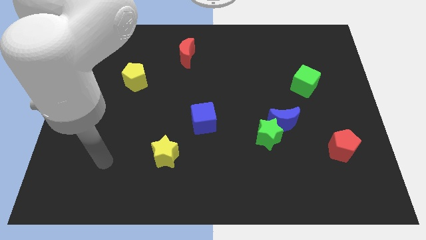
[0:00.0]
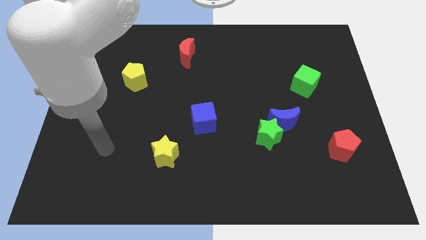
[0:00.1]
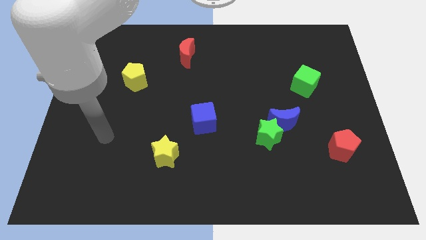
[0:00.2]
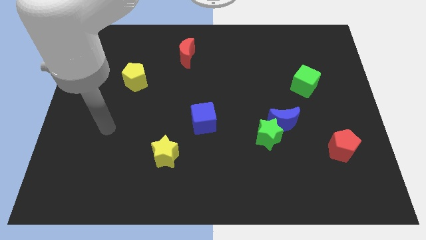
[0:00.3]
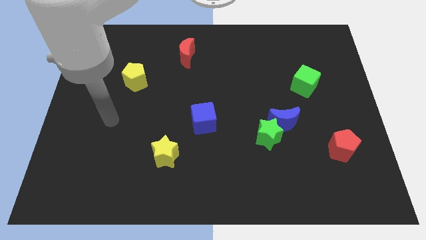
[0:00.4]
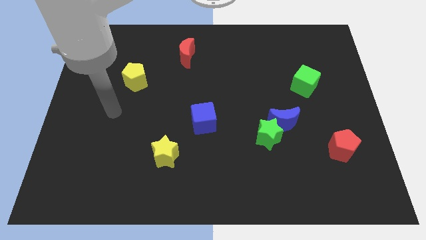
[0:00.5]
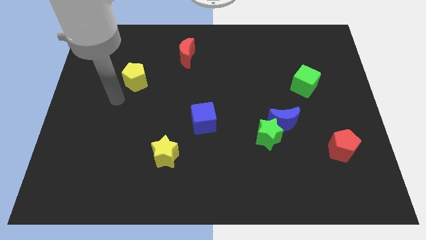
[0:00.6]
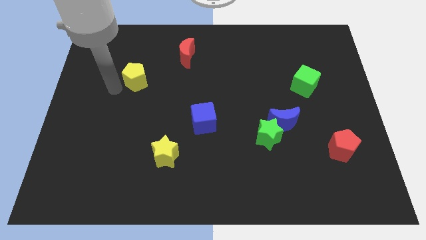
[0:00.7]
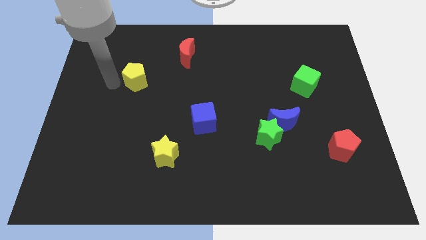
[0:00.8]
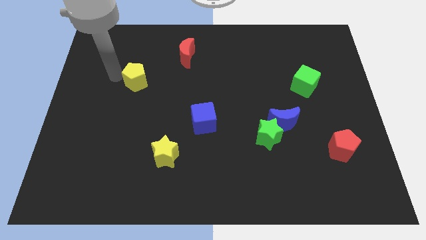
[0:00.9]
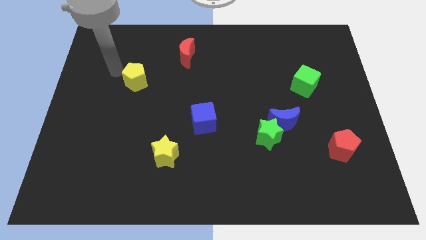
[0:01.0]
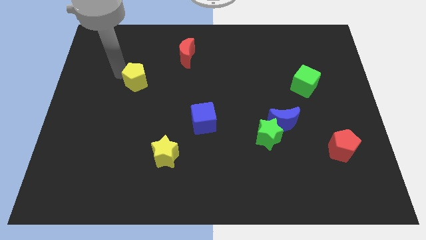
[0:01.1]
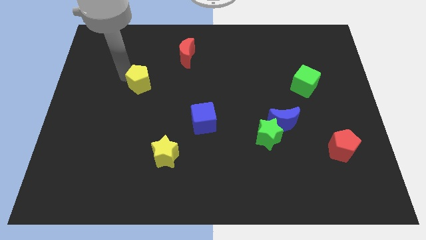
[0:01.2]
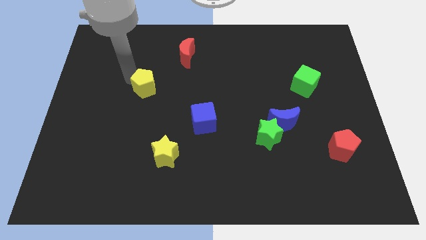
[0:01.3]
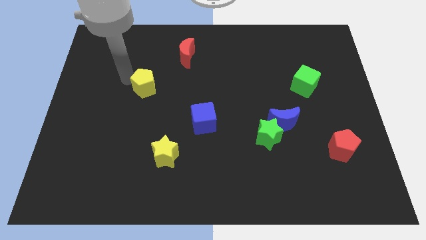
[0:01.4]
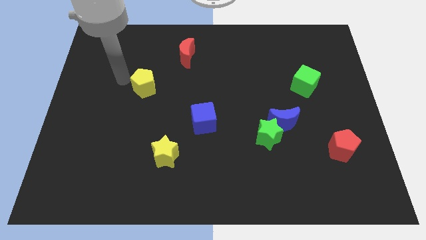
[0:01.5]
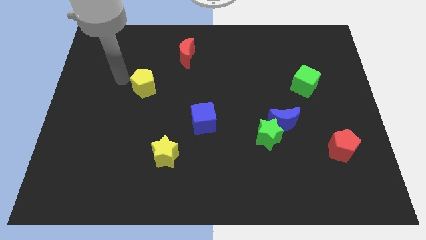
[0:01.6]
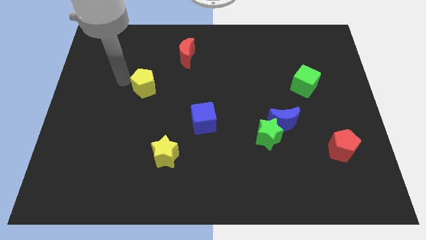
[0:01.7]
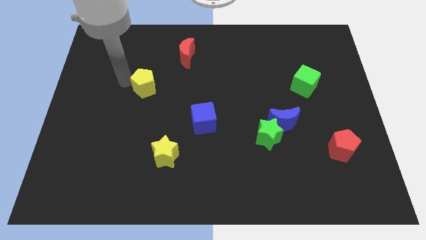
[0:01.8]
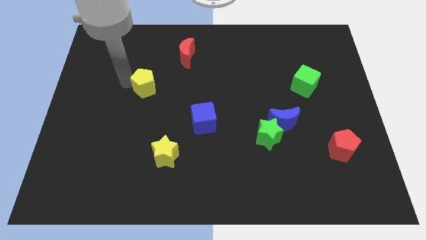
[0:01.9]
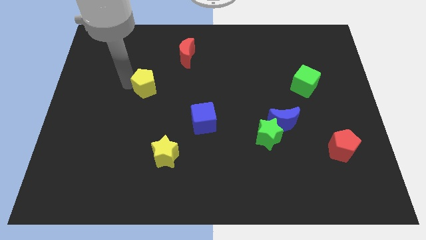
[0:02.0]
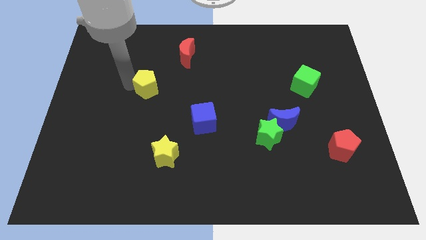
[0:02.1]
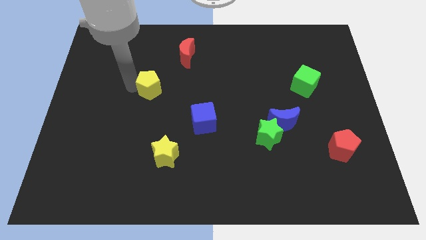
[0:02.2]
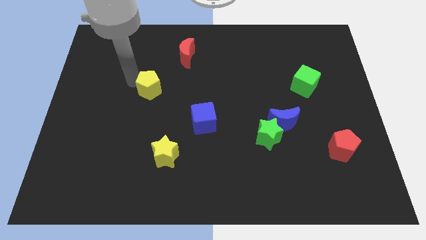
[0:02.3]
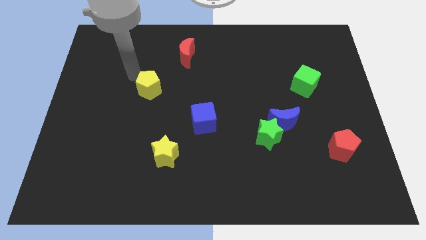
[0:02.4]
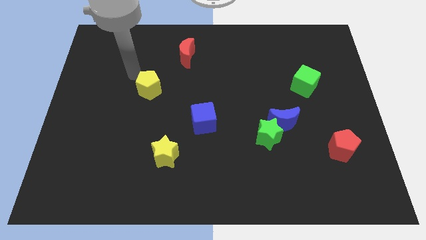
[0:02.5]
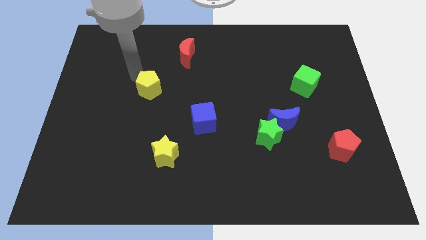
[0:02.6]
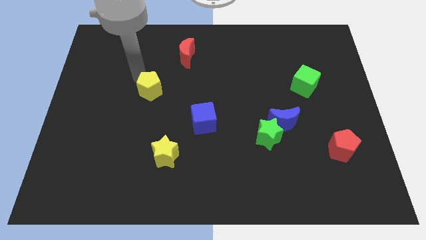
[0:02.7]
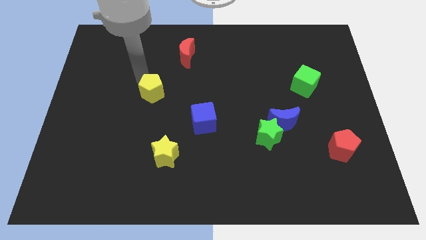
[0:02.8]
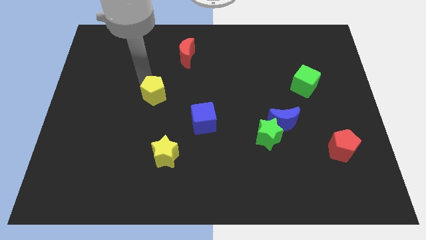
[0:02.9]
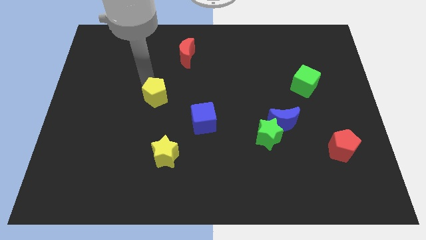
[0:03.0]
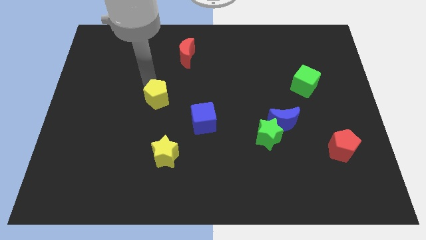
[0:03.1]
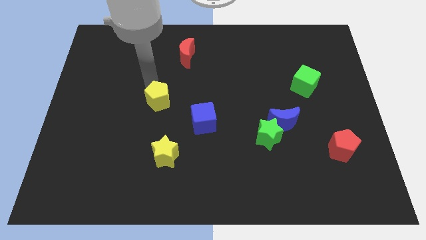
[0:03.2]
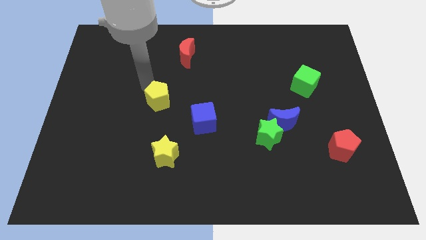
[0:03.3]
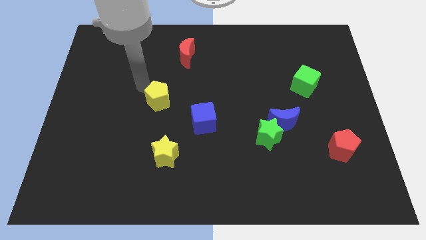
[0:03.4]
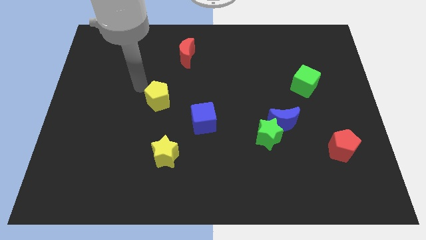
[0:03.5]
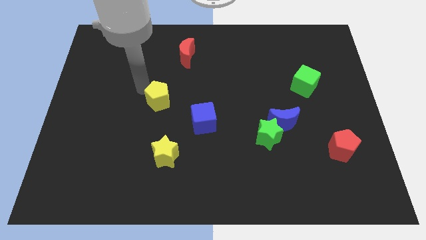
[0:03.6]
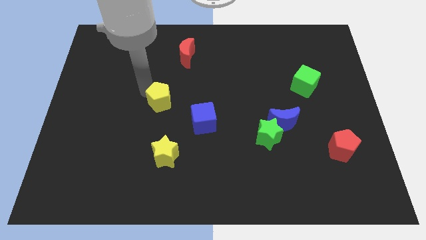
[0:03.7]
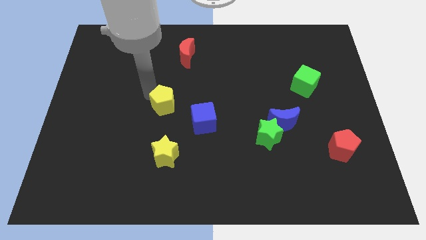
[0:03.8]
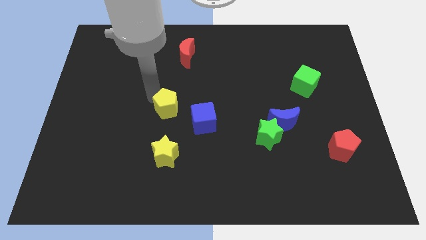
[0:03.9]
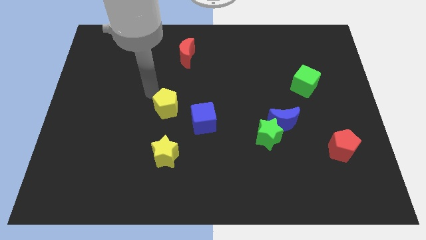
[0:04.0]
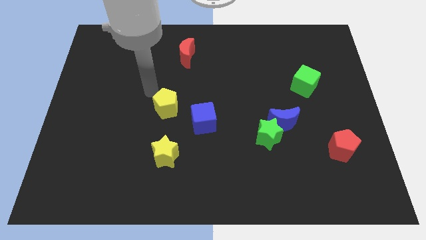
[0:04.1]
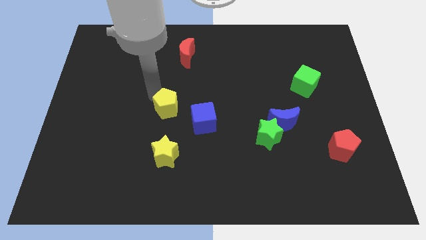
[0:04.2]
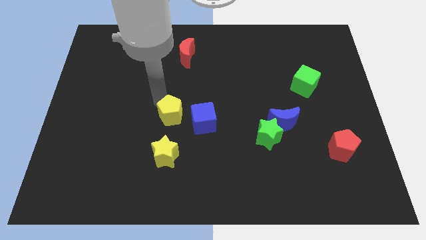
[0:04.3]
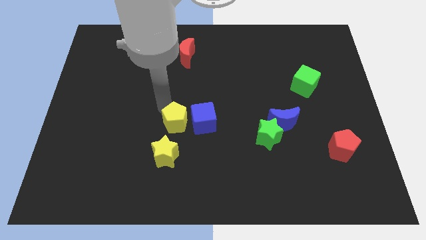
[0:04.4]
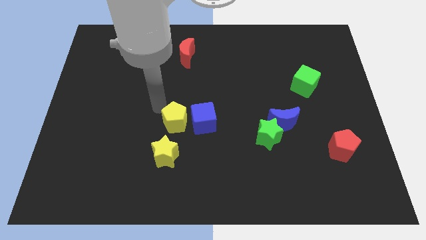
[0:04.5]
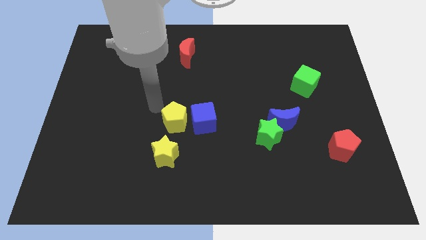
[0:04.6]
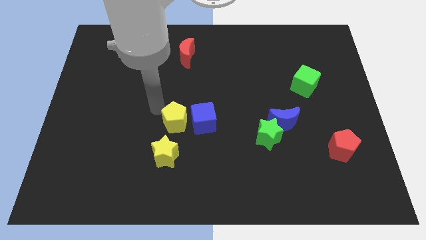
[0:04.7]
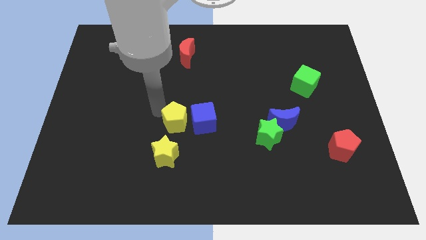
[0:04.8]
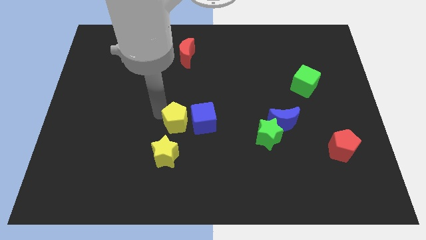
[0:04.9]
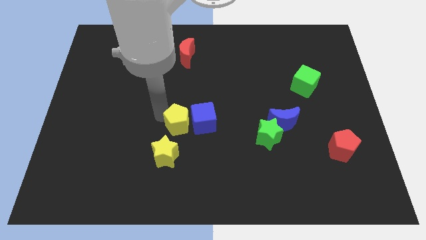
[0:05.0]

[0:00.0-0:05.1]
slide the yellow pentagon diagonally up and to the right of the yellow star

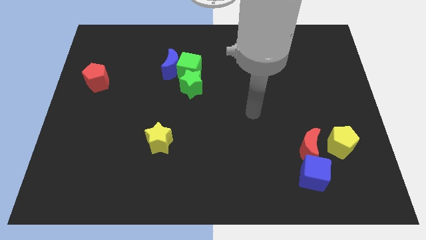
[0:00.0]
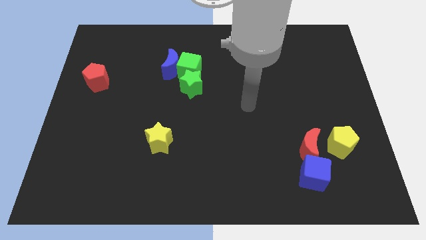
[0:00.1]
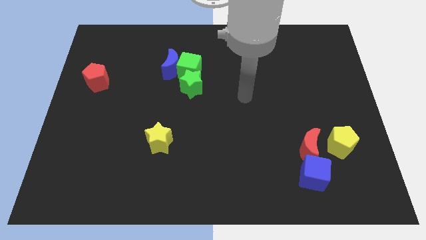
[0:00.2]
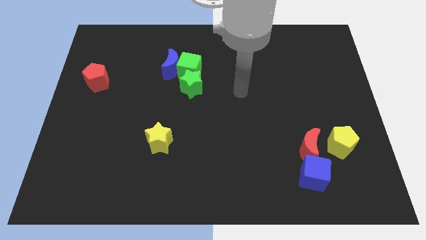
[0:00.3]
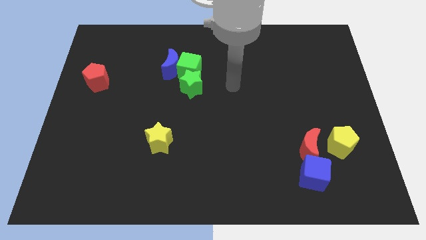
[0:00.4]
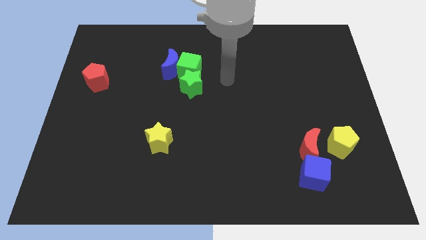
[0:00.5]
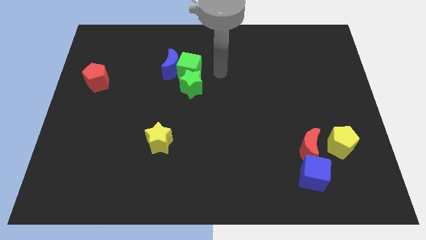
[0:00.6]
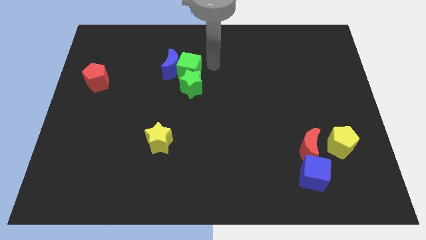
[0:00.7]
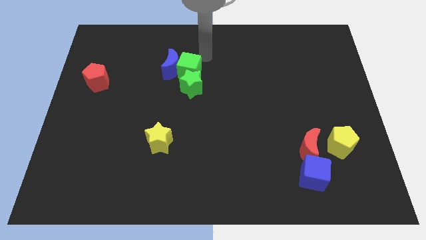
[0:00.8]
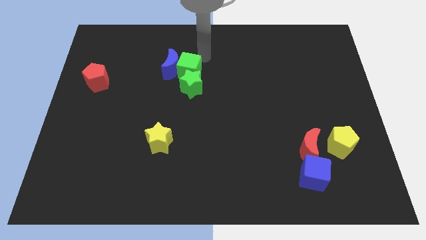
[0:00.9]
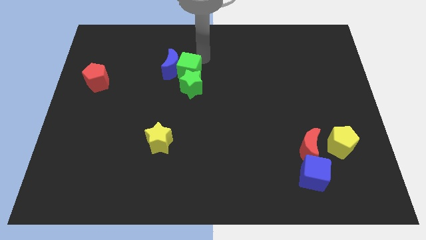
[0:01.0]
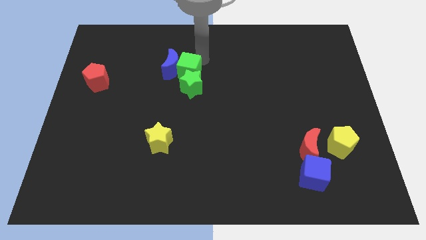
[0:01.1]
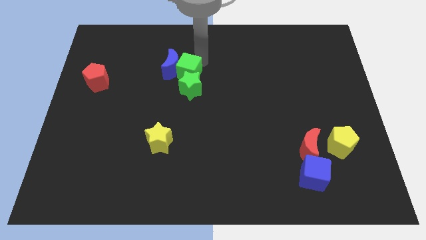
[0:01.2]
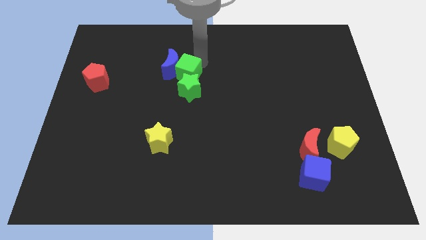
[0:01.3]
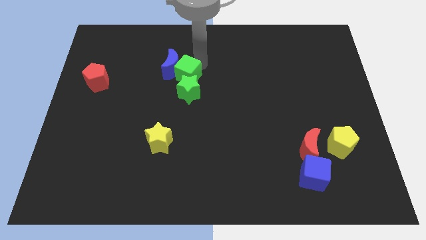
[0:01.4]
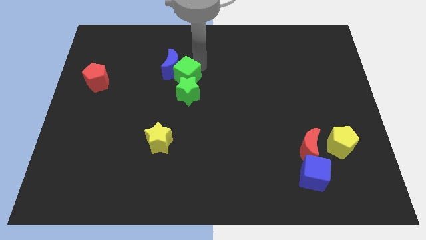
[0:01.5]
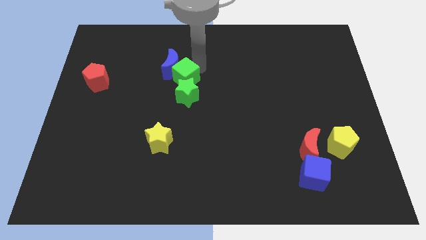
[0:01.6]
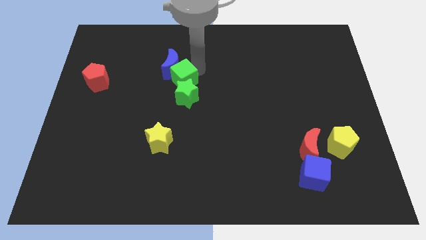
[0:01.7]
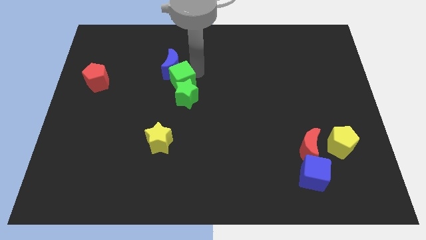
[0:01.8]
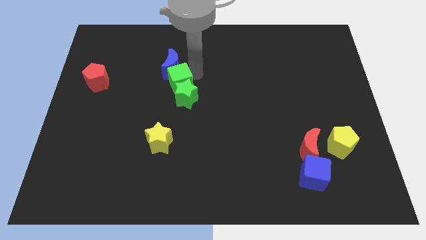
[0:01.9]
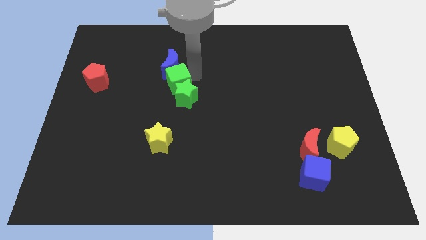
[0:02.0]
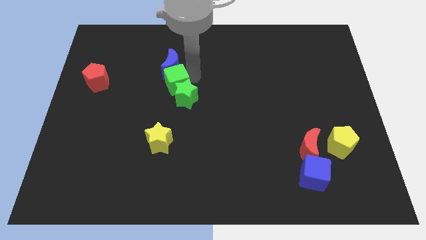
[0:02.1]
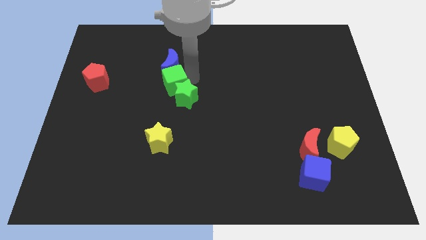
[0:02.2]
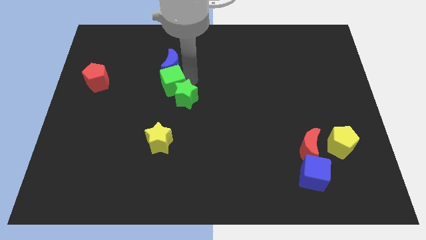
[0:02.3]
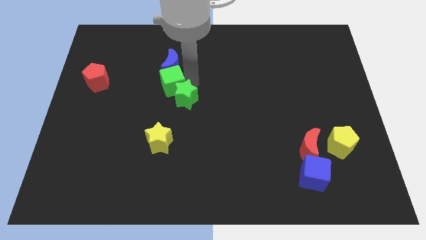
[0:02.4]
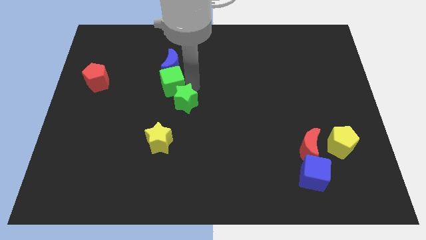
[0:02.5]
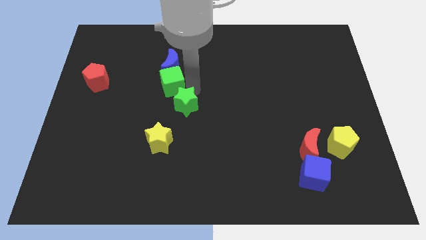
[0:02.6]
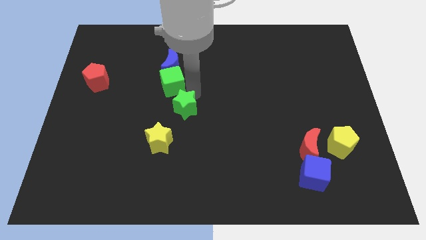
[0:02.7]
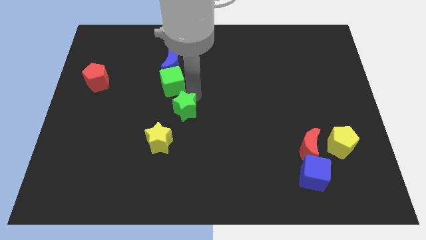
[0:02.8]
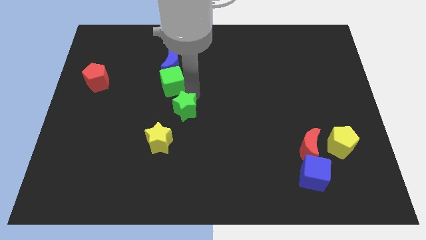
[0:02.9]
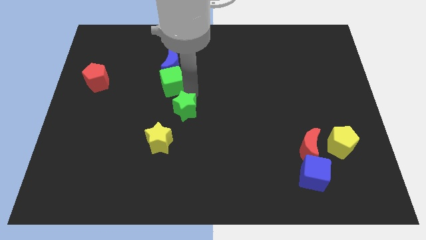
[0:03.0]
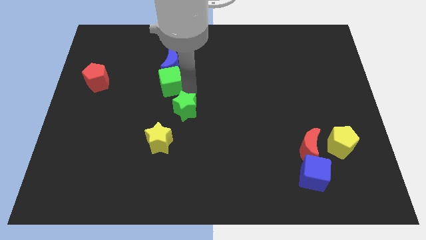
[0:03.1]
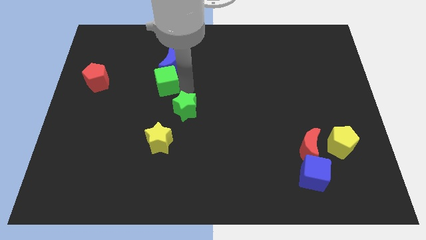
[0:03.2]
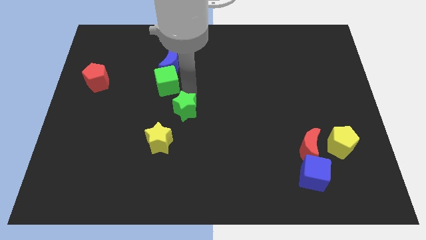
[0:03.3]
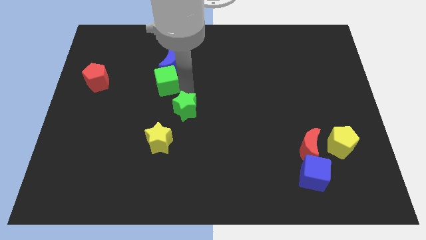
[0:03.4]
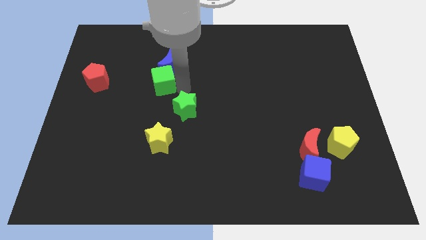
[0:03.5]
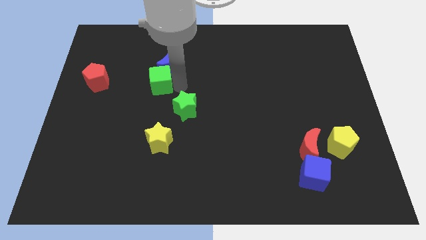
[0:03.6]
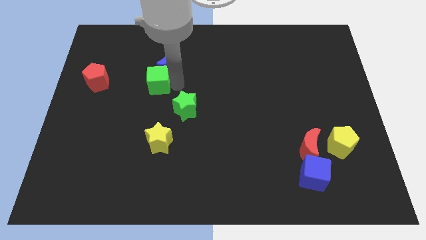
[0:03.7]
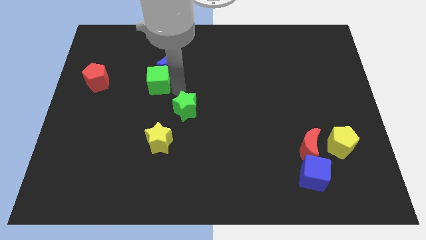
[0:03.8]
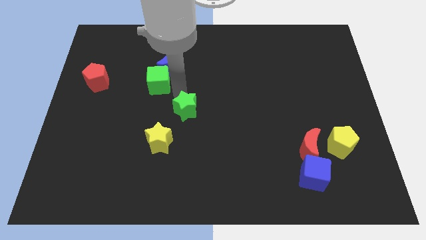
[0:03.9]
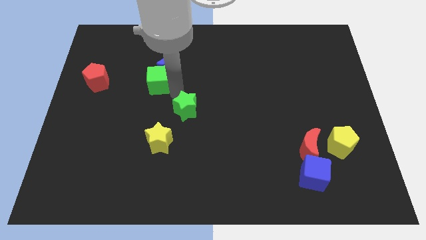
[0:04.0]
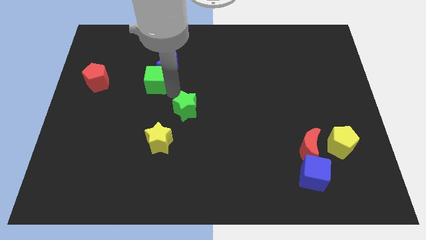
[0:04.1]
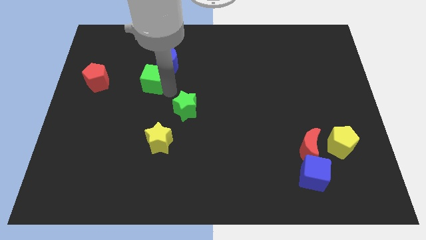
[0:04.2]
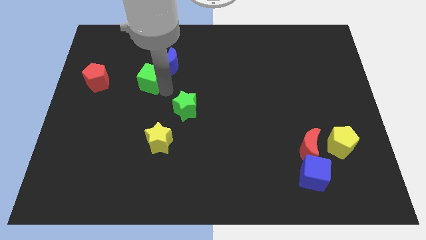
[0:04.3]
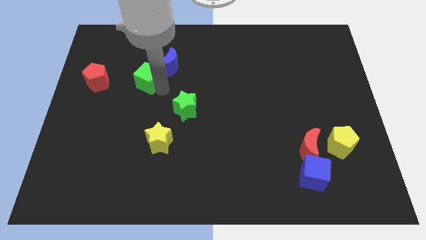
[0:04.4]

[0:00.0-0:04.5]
put the green cube to the left side of the blue moon
